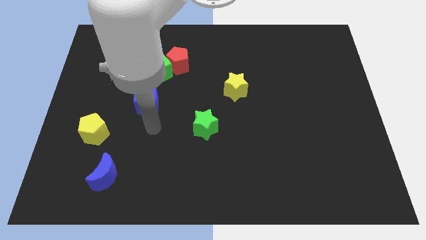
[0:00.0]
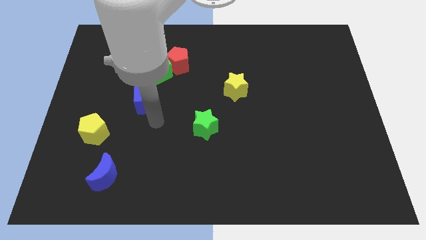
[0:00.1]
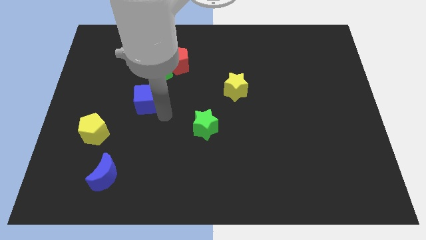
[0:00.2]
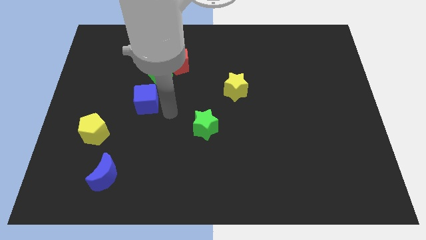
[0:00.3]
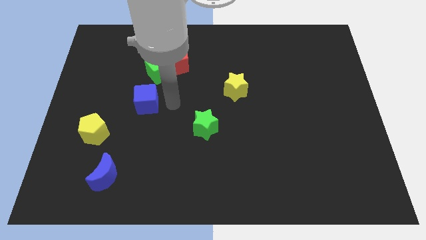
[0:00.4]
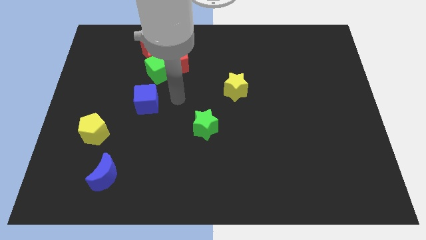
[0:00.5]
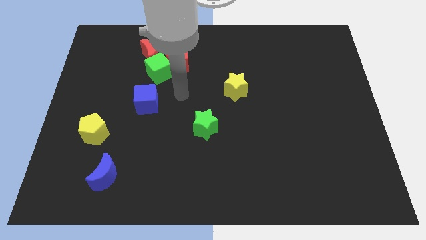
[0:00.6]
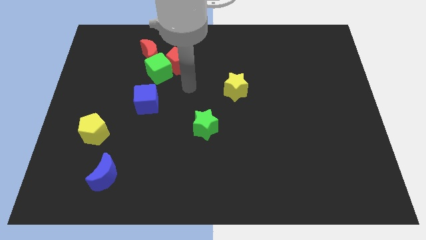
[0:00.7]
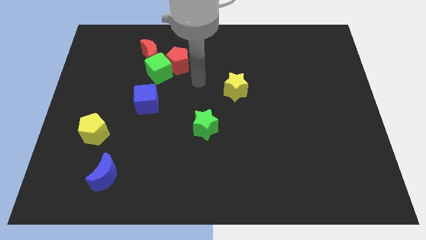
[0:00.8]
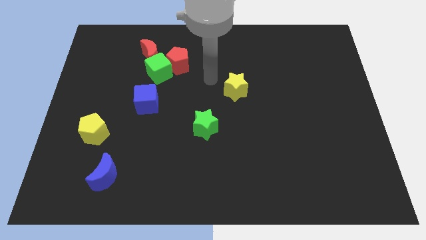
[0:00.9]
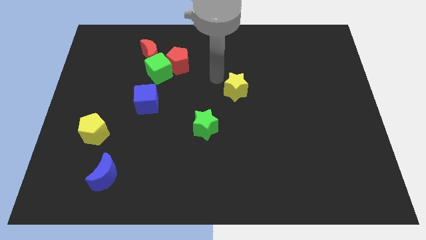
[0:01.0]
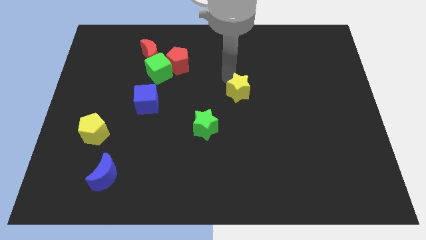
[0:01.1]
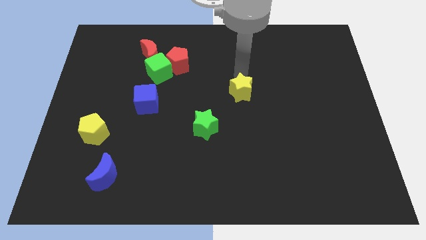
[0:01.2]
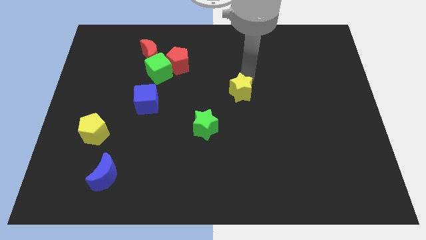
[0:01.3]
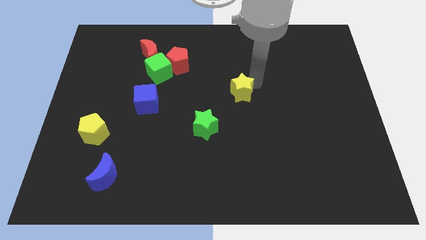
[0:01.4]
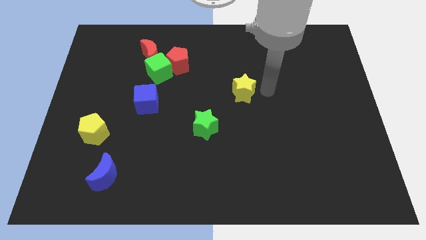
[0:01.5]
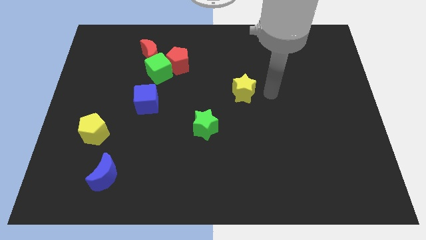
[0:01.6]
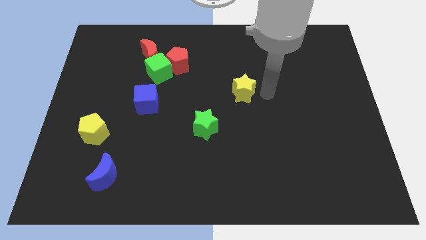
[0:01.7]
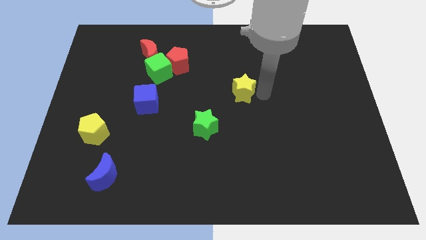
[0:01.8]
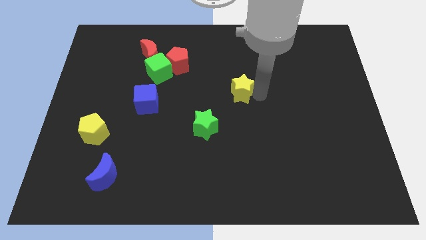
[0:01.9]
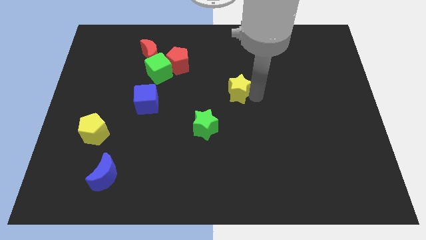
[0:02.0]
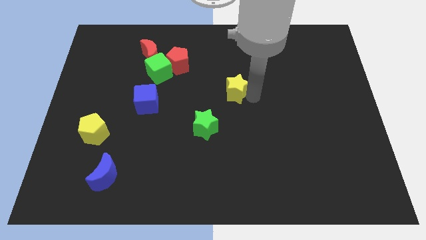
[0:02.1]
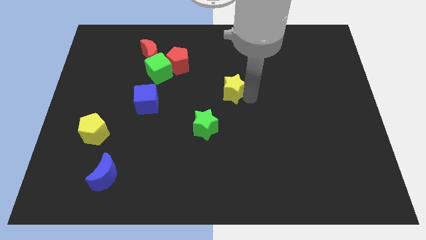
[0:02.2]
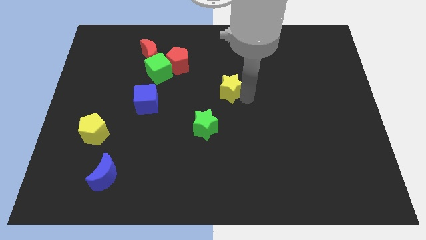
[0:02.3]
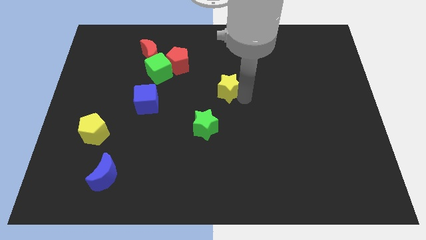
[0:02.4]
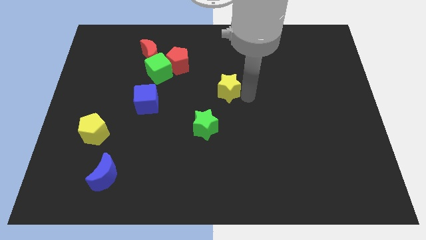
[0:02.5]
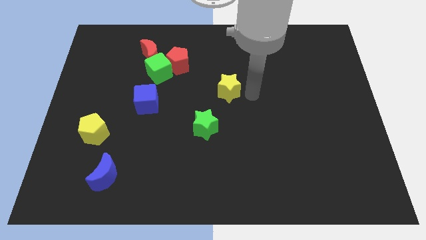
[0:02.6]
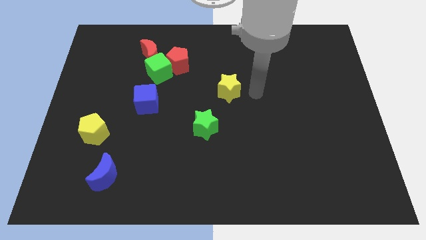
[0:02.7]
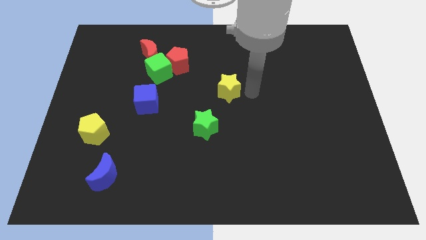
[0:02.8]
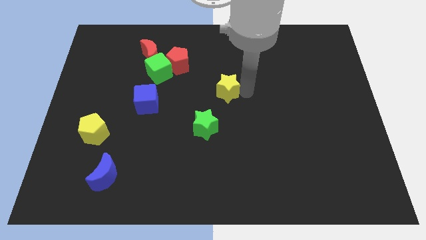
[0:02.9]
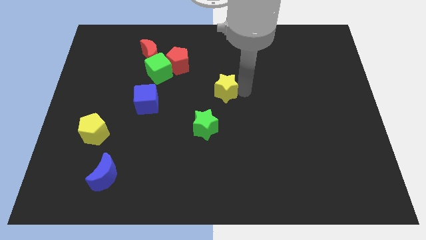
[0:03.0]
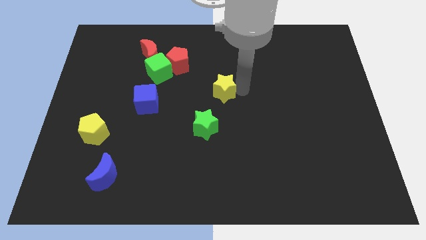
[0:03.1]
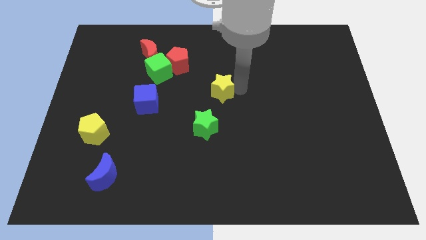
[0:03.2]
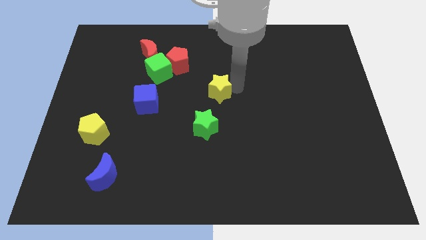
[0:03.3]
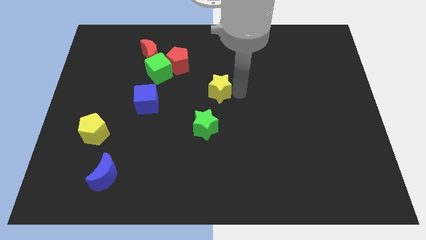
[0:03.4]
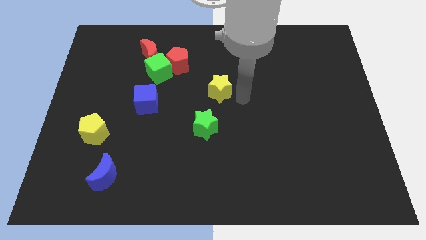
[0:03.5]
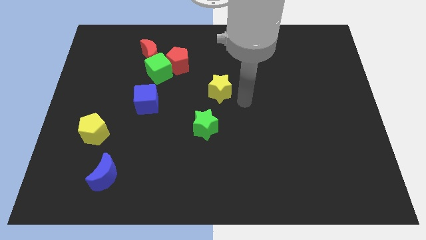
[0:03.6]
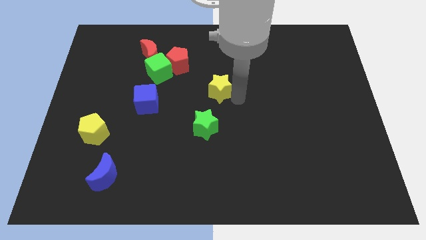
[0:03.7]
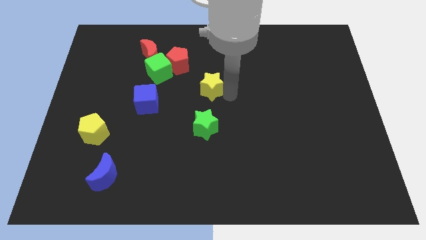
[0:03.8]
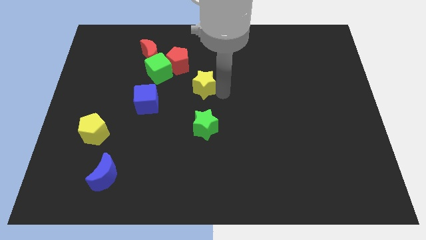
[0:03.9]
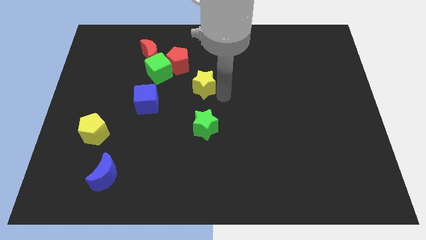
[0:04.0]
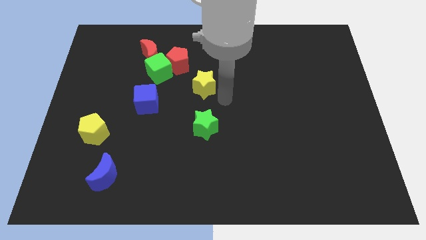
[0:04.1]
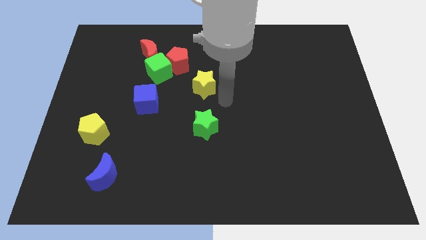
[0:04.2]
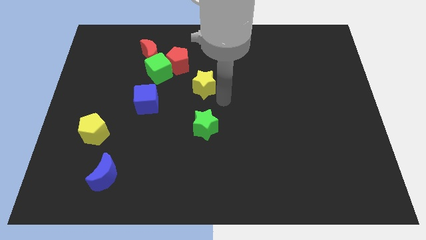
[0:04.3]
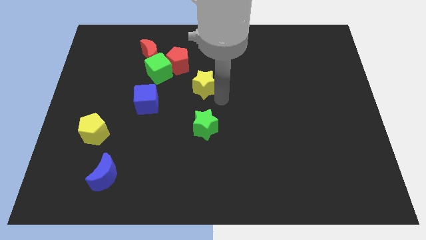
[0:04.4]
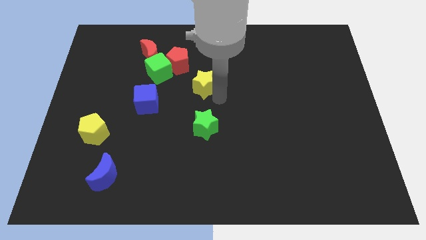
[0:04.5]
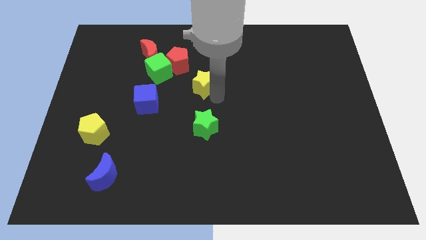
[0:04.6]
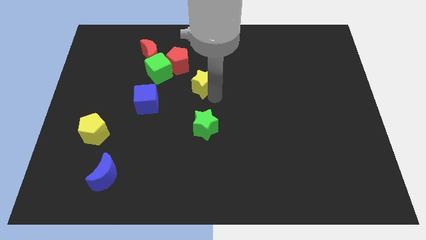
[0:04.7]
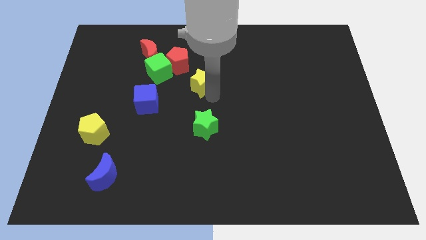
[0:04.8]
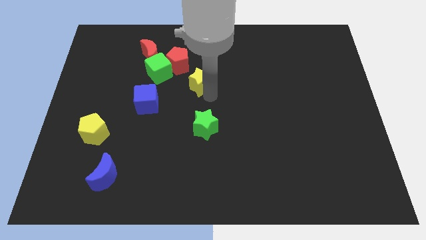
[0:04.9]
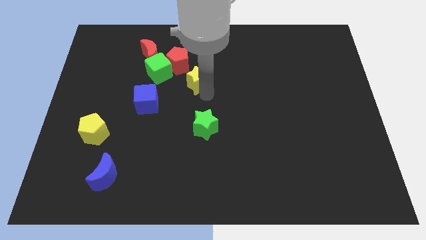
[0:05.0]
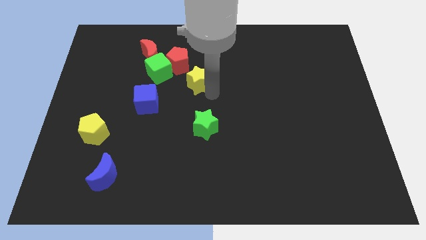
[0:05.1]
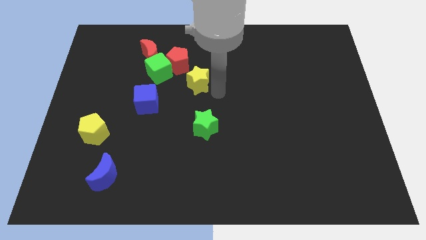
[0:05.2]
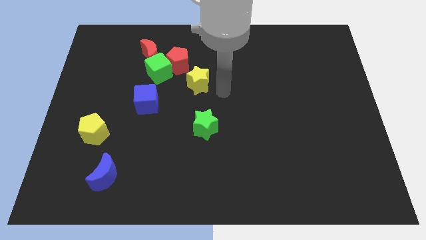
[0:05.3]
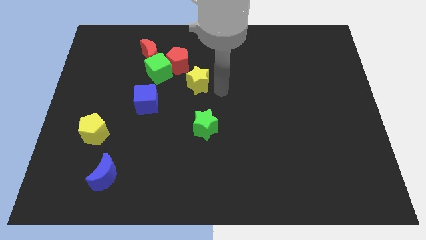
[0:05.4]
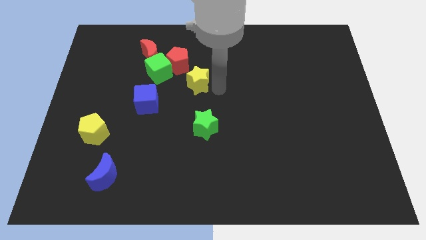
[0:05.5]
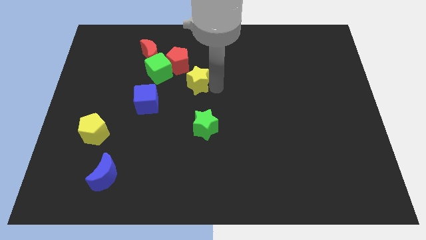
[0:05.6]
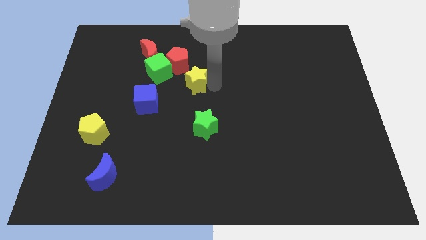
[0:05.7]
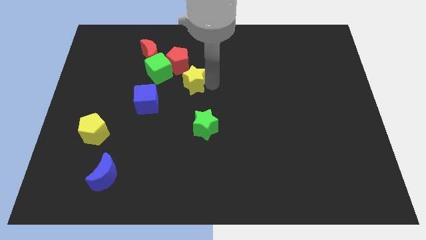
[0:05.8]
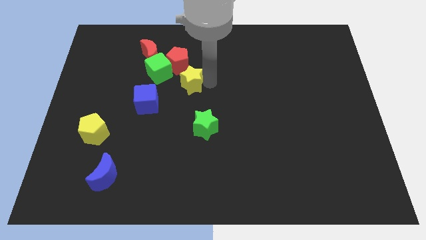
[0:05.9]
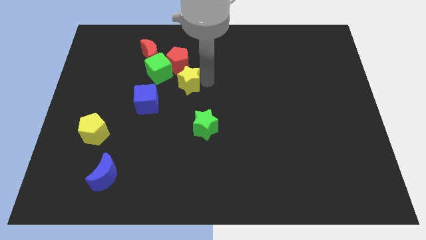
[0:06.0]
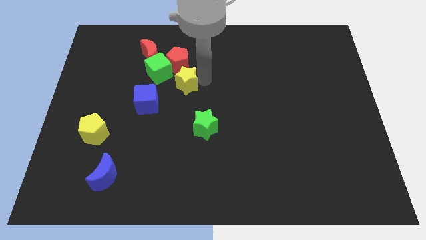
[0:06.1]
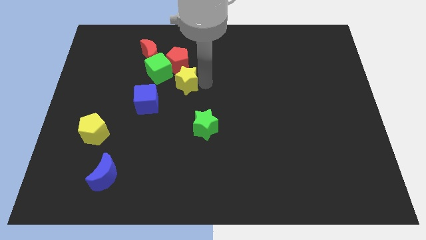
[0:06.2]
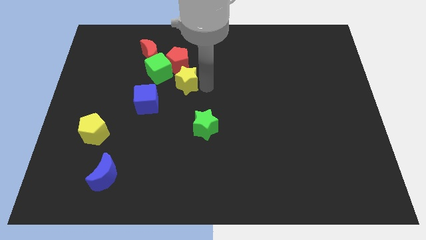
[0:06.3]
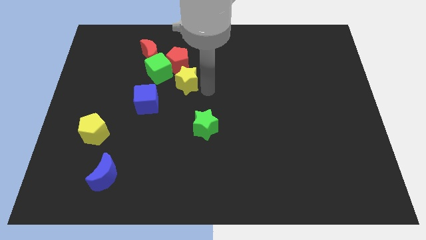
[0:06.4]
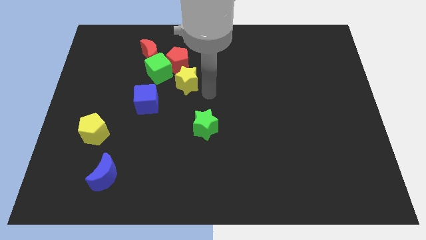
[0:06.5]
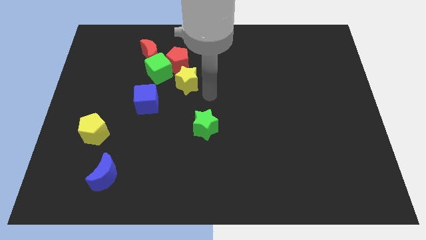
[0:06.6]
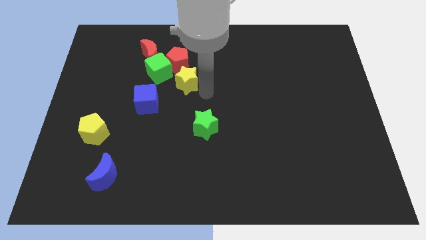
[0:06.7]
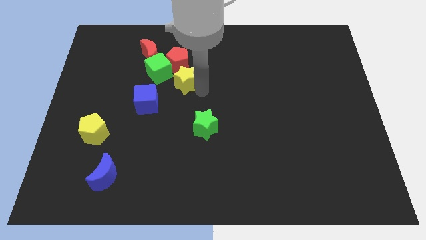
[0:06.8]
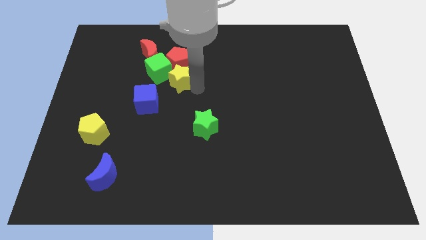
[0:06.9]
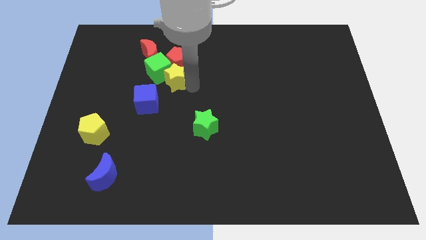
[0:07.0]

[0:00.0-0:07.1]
push the yellow star to the green cube
